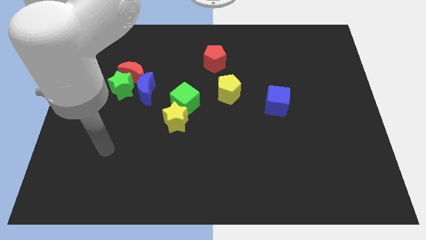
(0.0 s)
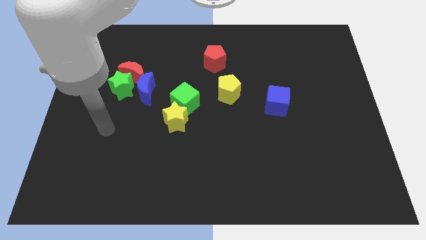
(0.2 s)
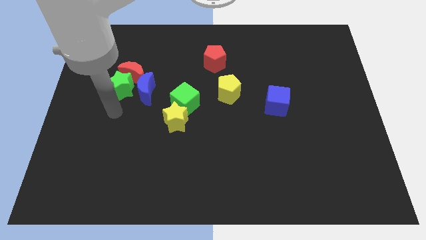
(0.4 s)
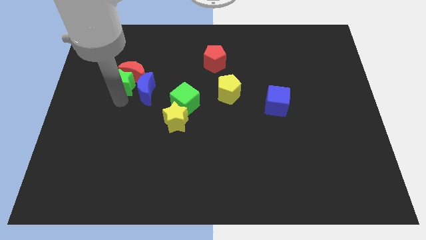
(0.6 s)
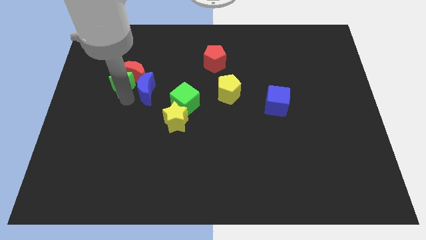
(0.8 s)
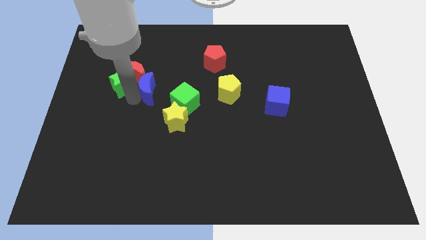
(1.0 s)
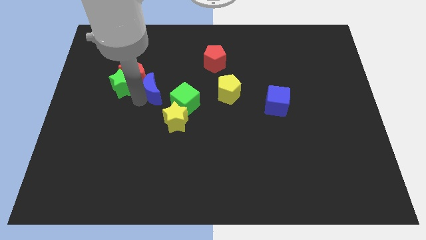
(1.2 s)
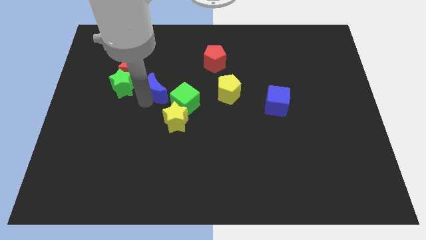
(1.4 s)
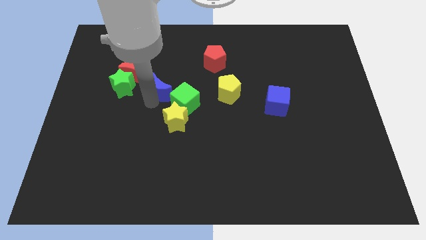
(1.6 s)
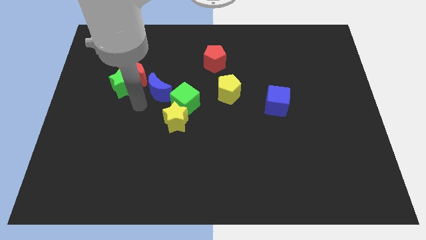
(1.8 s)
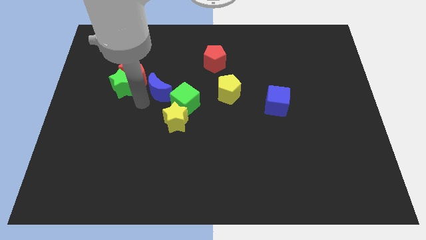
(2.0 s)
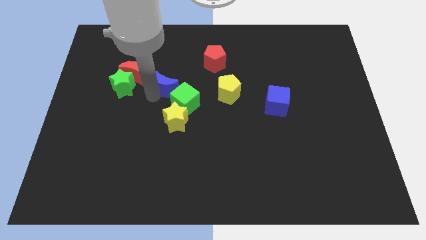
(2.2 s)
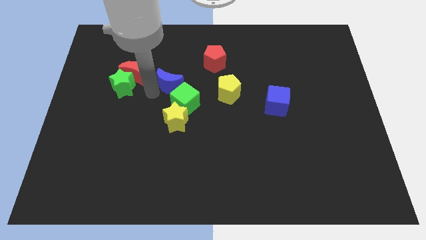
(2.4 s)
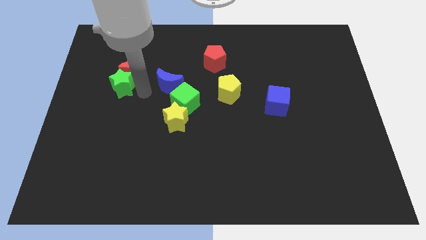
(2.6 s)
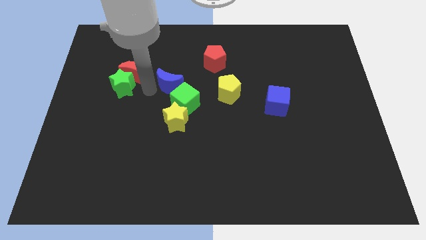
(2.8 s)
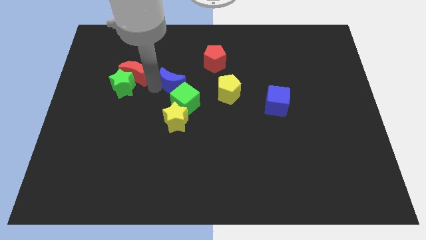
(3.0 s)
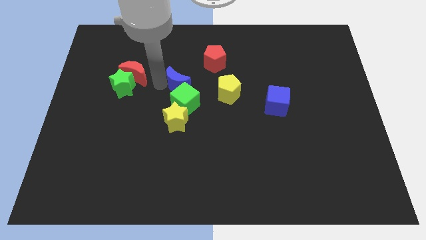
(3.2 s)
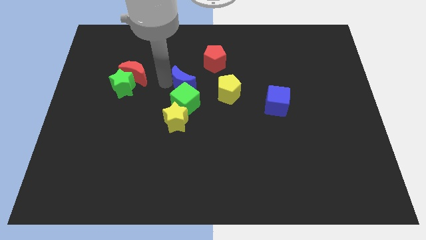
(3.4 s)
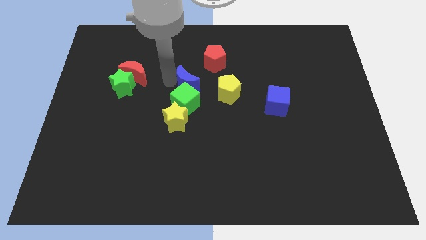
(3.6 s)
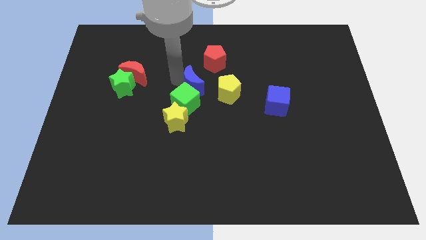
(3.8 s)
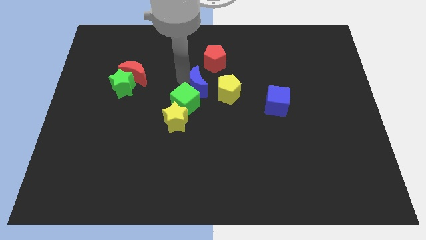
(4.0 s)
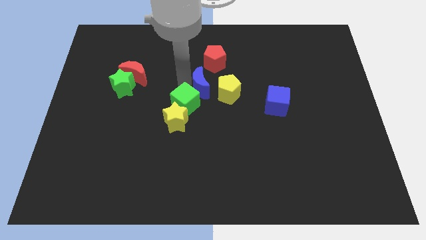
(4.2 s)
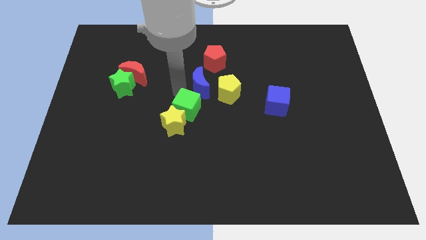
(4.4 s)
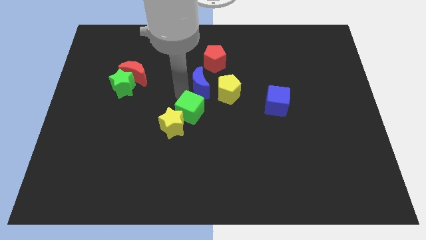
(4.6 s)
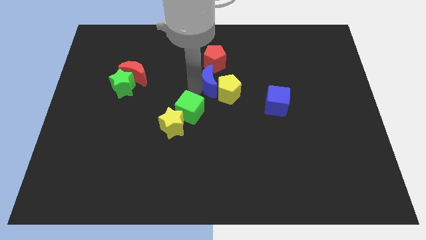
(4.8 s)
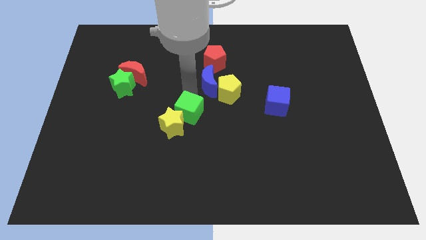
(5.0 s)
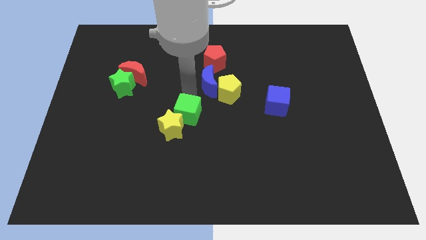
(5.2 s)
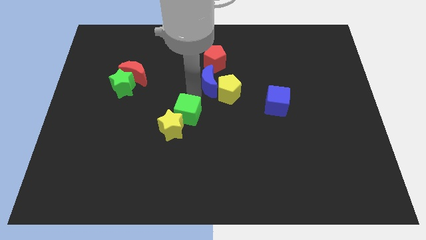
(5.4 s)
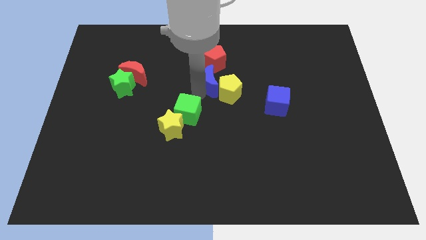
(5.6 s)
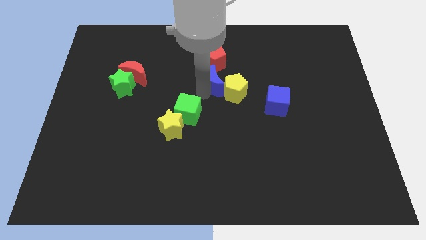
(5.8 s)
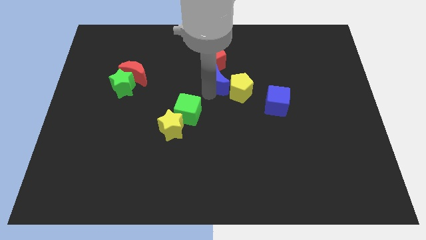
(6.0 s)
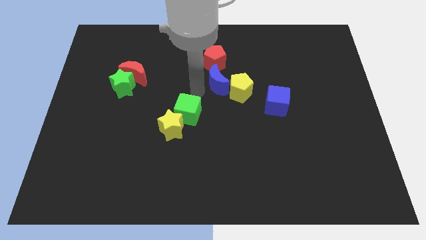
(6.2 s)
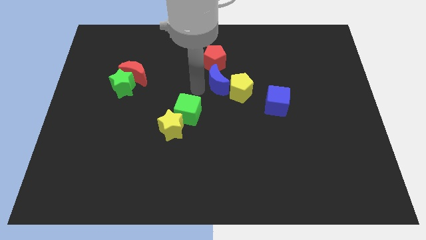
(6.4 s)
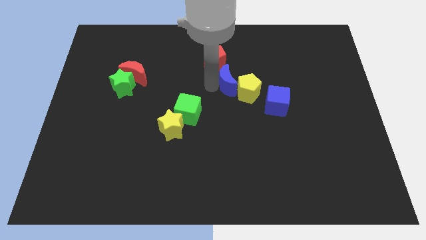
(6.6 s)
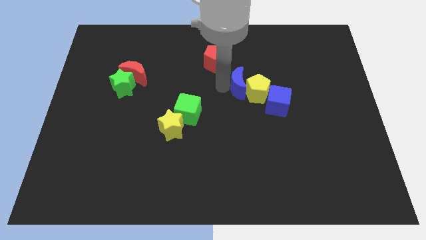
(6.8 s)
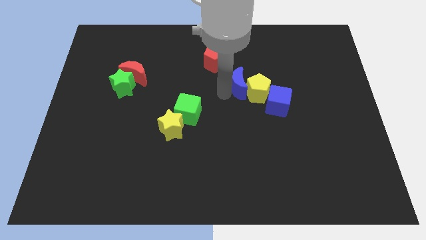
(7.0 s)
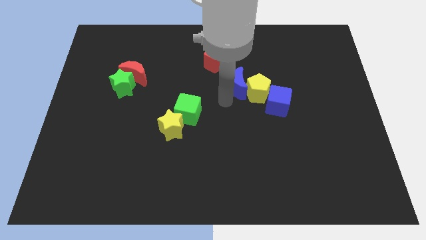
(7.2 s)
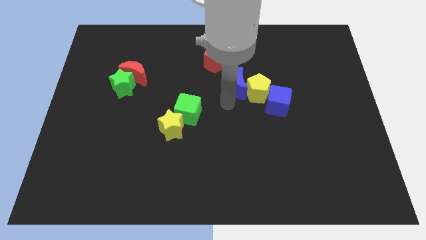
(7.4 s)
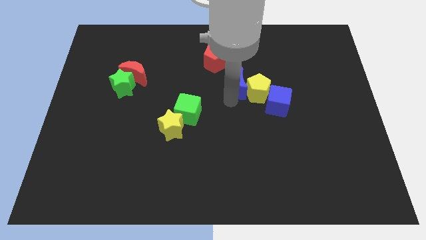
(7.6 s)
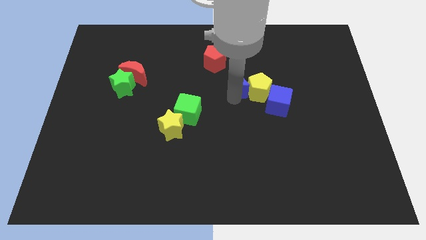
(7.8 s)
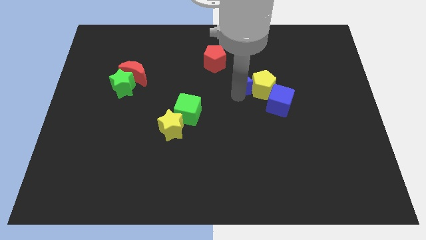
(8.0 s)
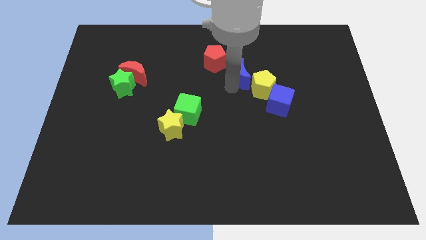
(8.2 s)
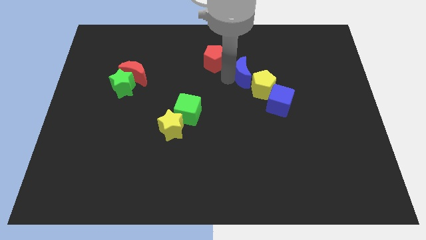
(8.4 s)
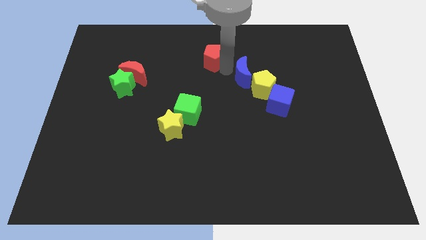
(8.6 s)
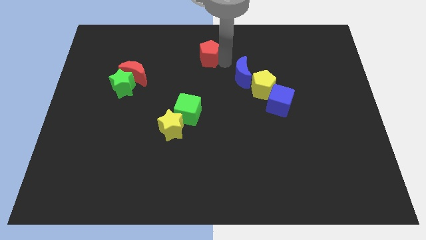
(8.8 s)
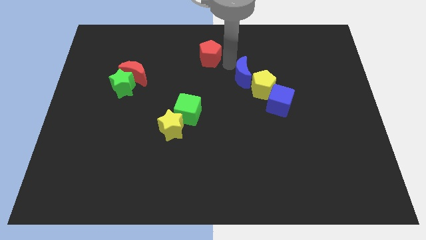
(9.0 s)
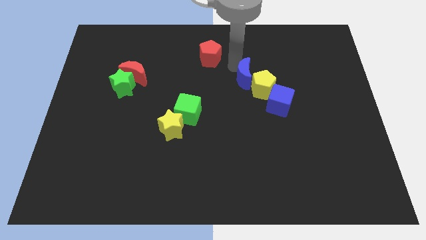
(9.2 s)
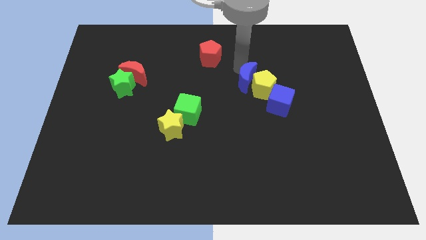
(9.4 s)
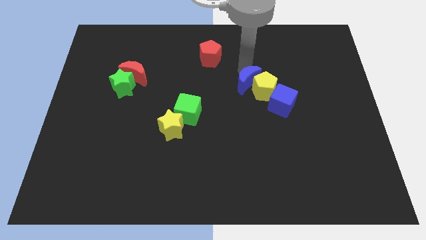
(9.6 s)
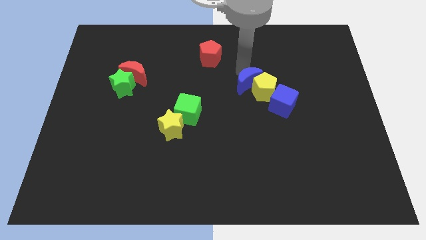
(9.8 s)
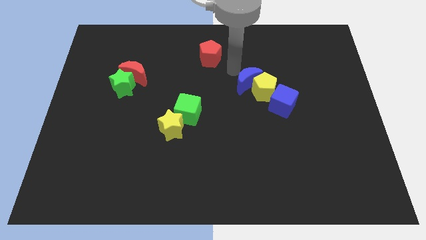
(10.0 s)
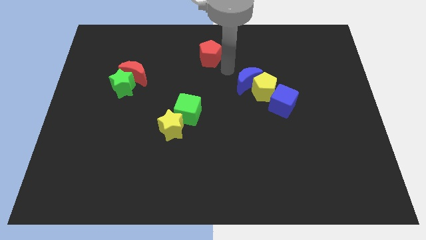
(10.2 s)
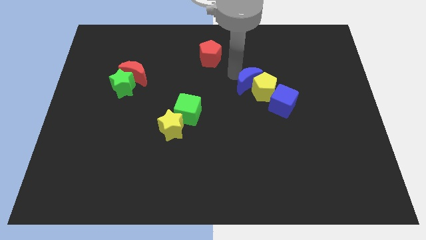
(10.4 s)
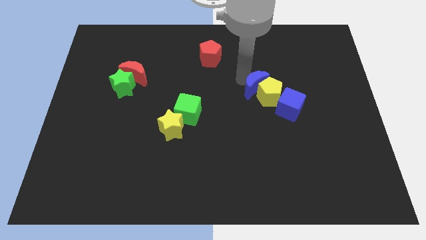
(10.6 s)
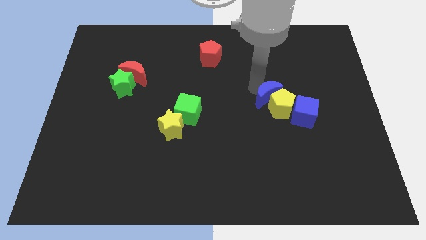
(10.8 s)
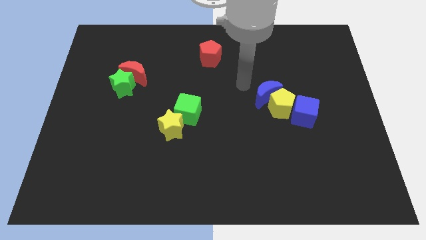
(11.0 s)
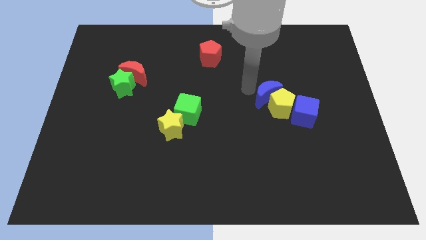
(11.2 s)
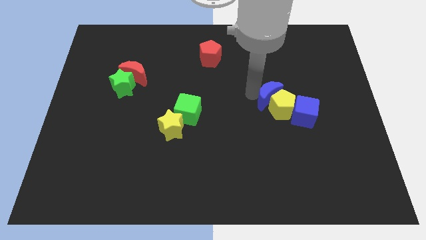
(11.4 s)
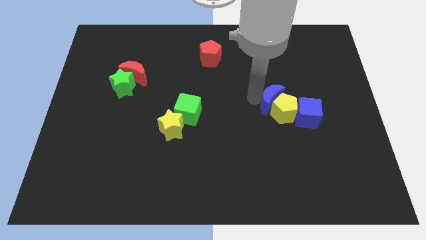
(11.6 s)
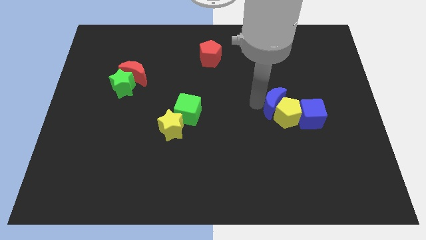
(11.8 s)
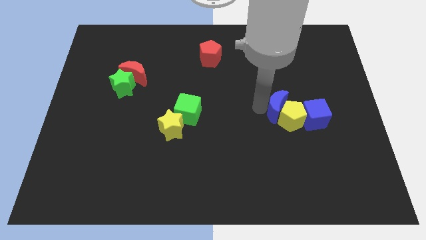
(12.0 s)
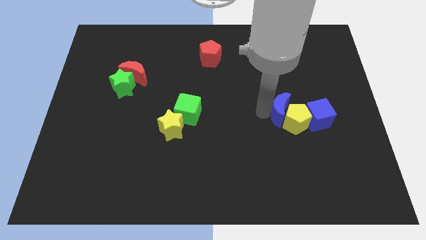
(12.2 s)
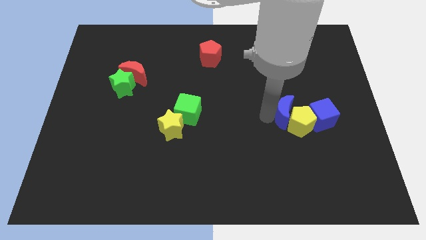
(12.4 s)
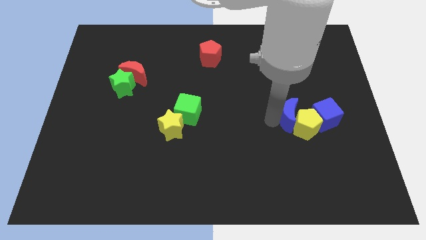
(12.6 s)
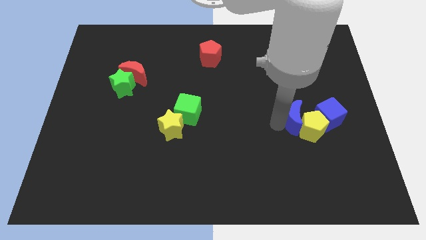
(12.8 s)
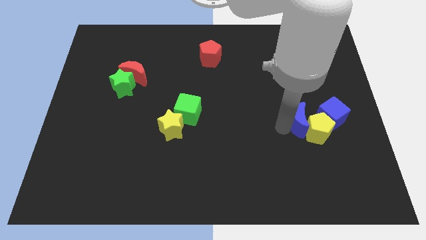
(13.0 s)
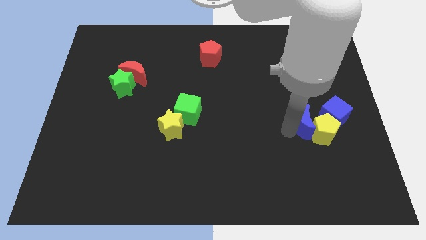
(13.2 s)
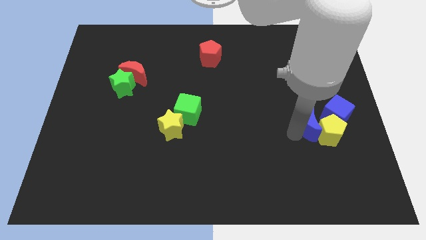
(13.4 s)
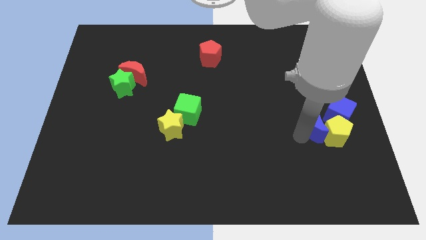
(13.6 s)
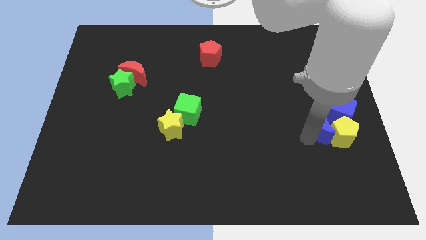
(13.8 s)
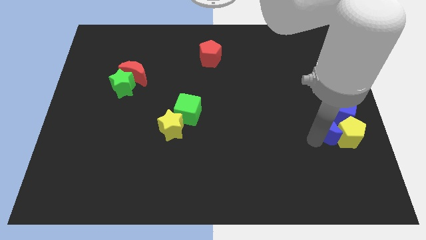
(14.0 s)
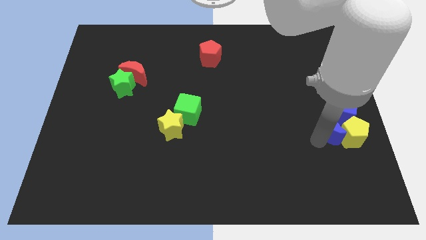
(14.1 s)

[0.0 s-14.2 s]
push the blue moon close to the blue cube
